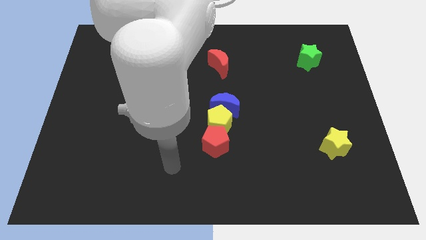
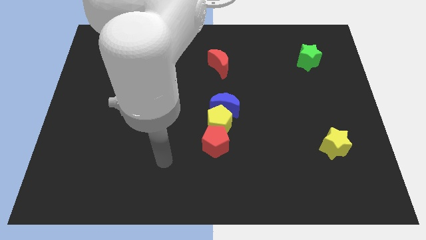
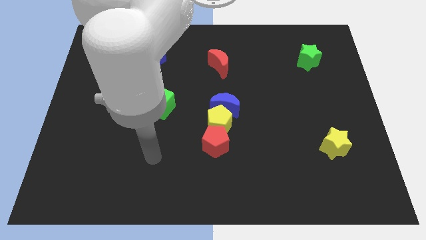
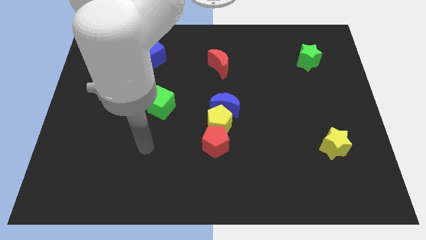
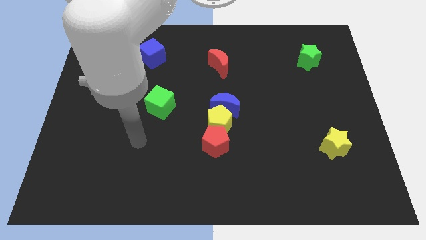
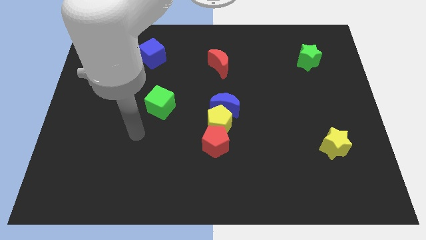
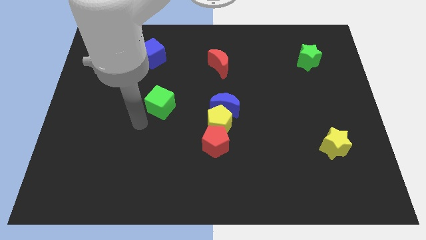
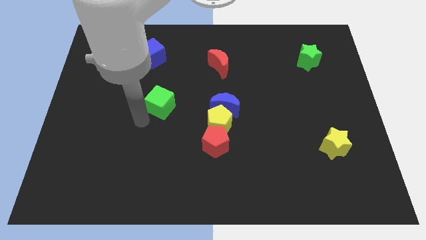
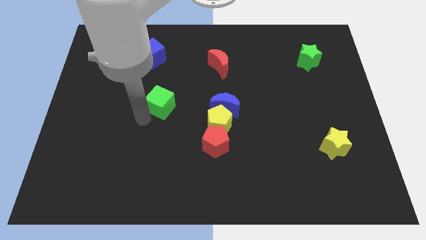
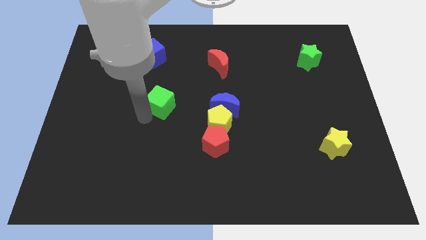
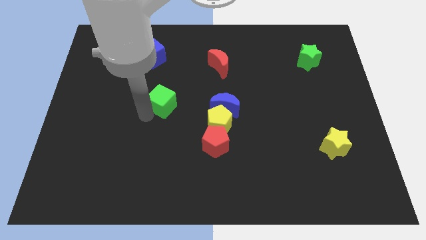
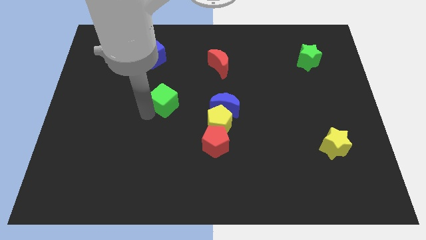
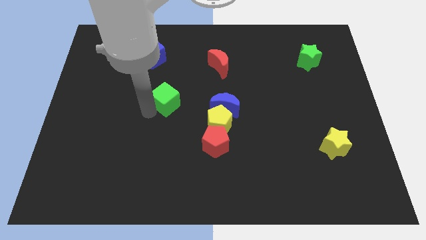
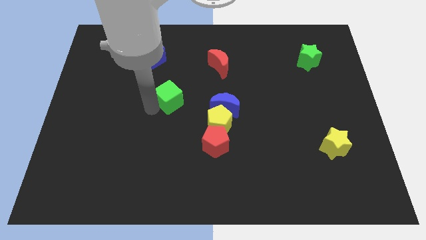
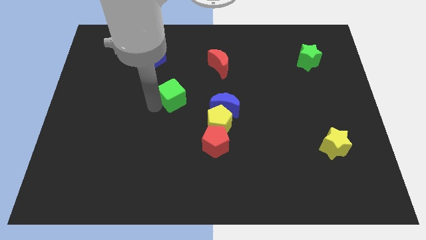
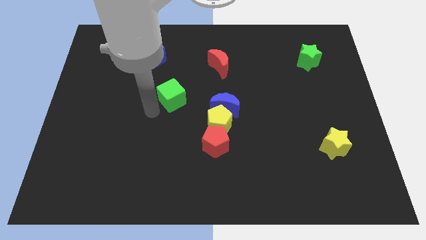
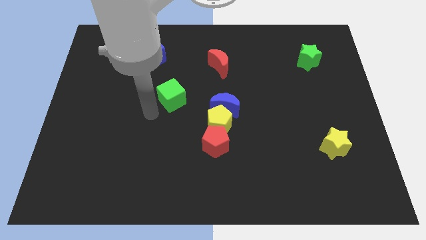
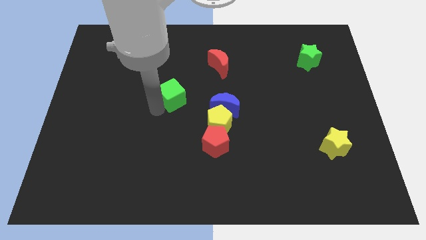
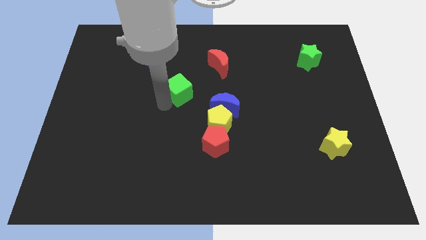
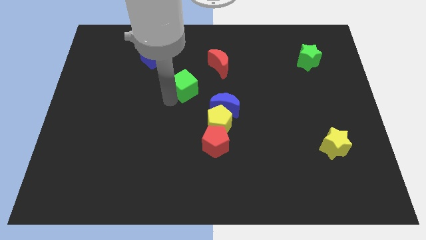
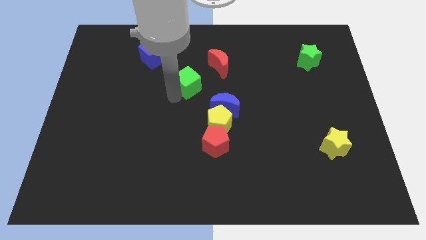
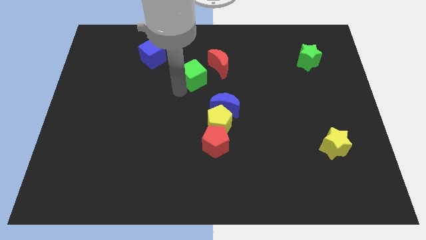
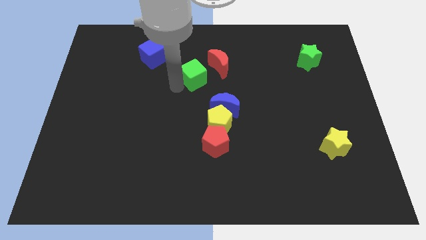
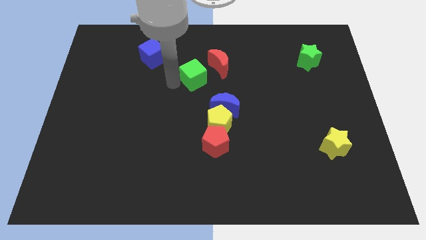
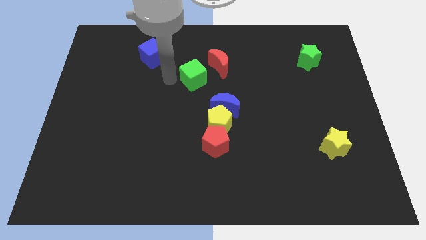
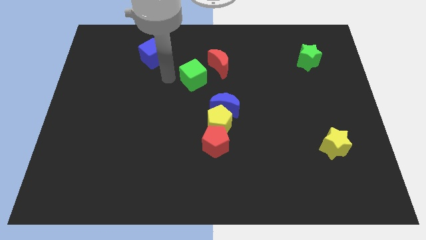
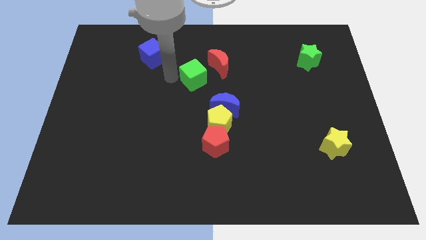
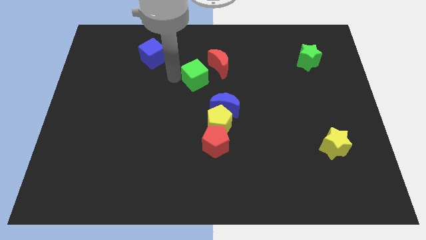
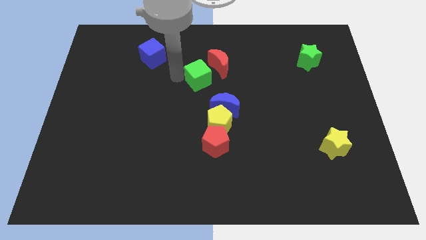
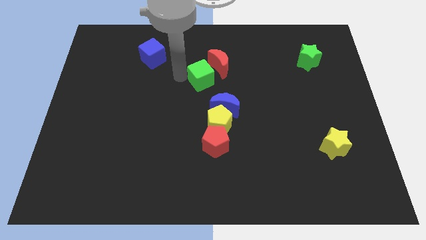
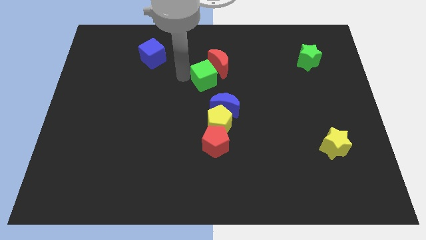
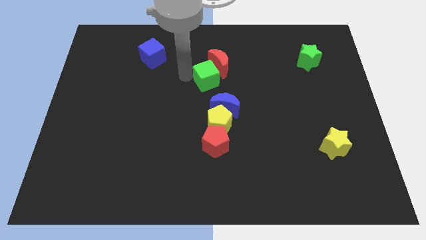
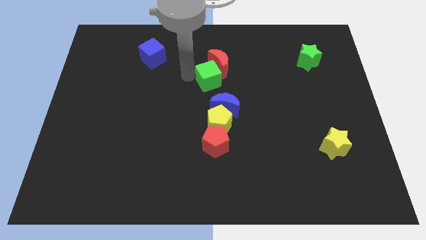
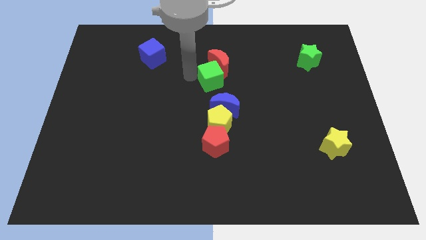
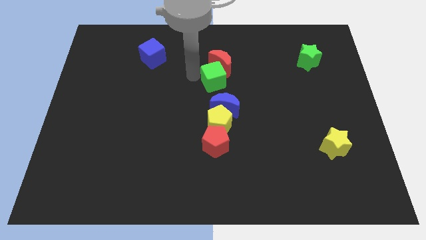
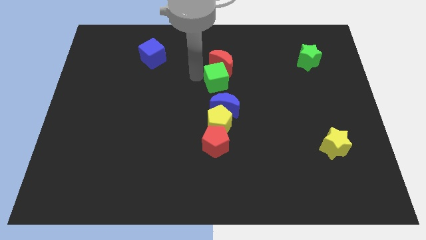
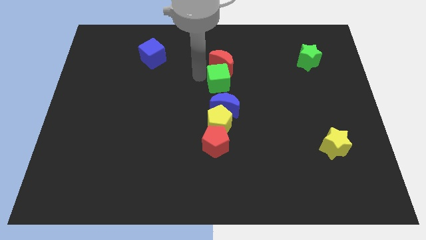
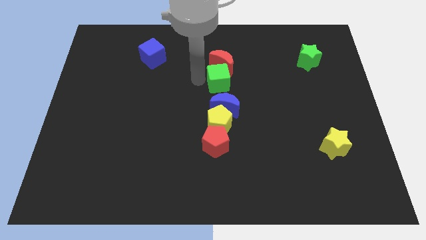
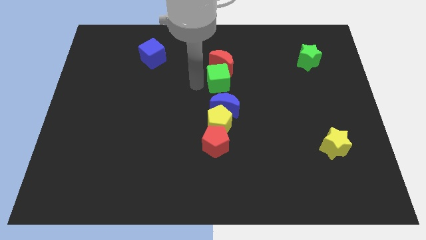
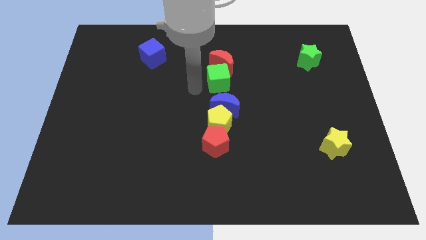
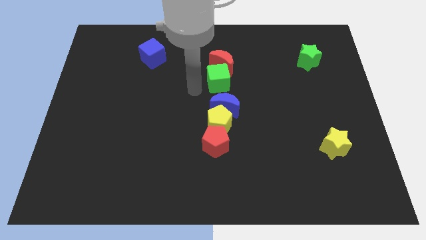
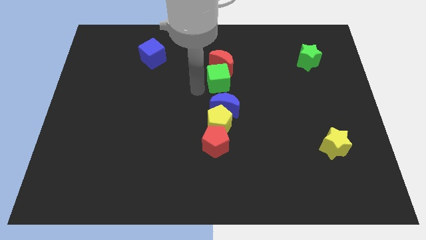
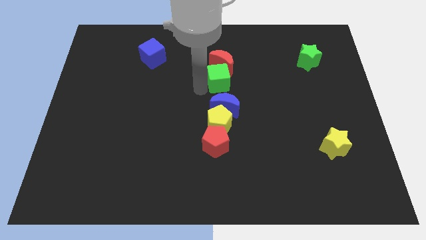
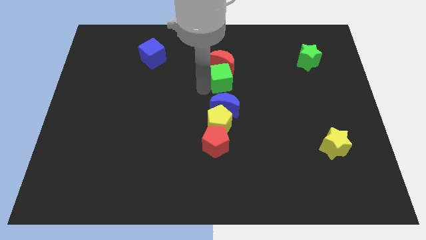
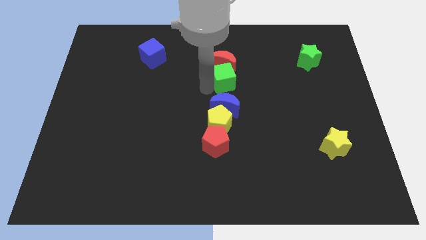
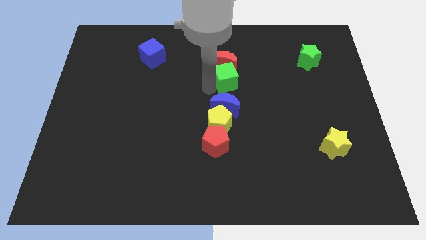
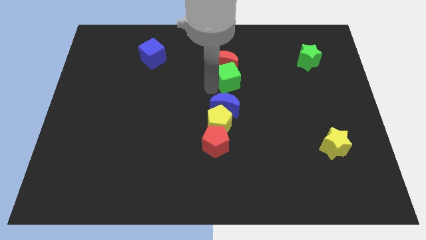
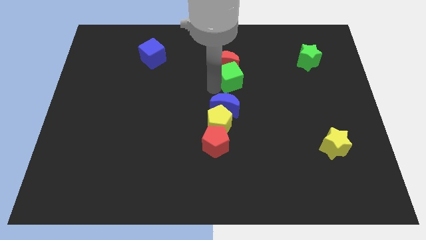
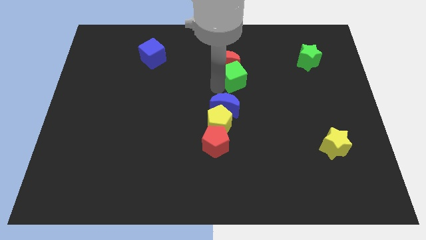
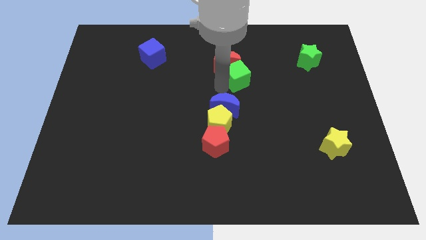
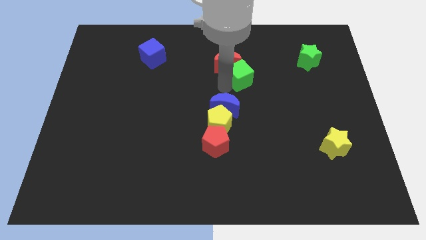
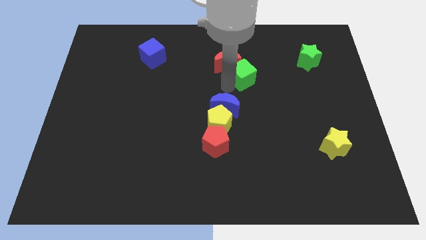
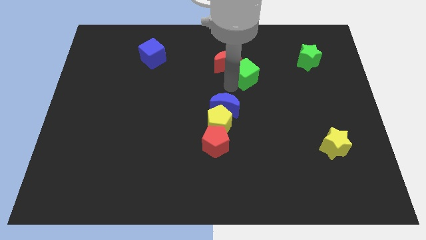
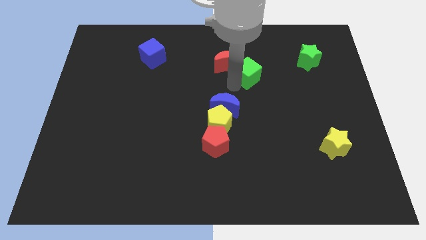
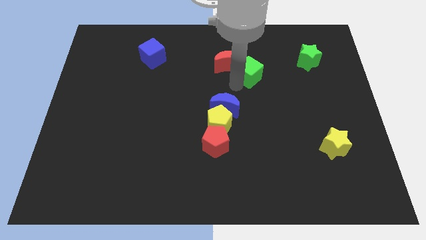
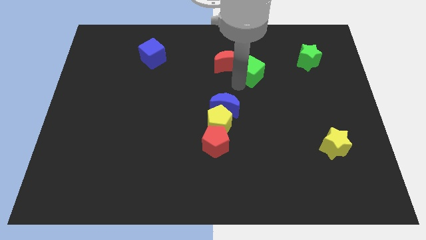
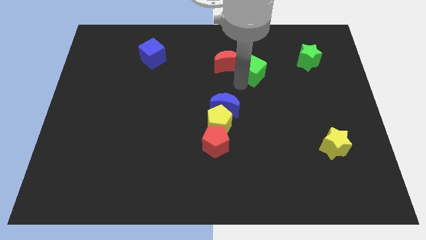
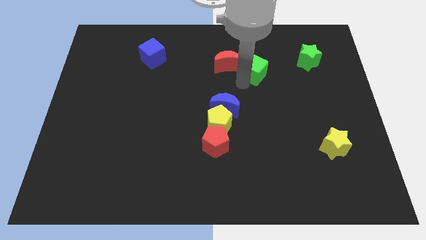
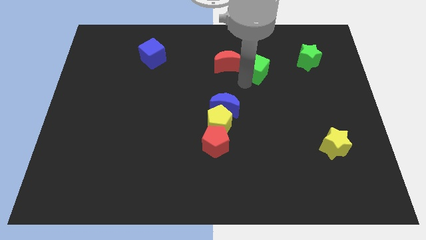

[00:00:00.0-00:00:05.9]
put the green cube to the left side of the green star

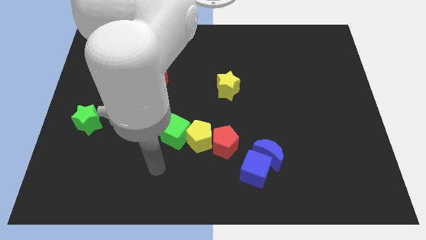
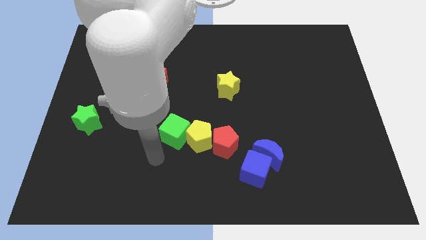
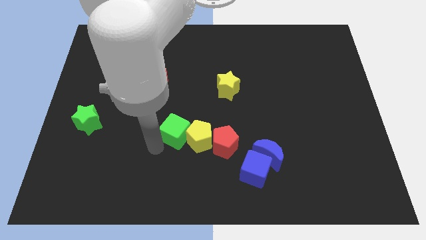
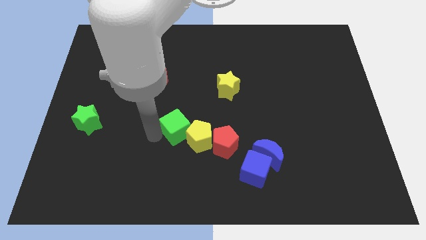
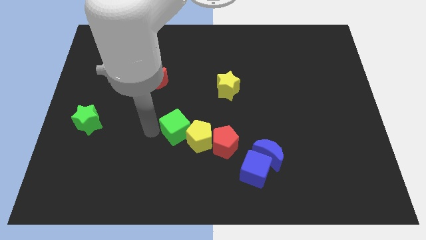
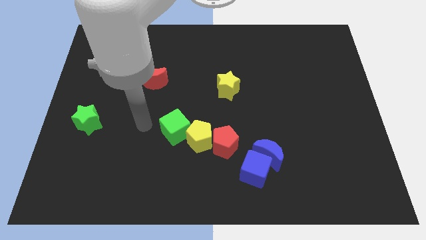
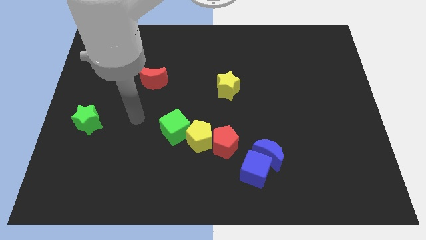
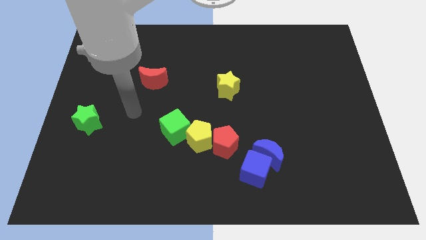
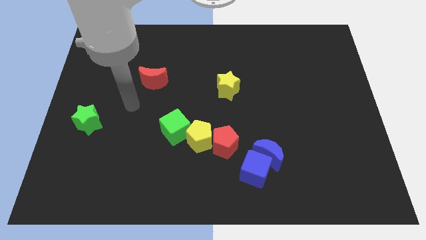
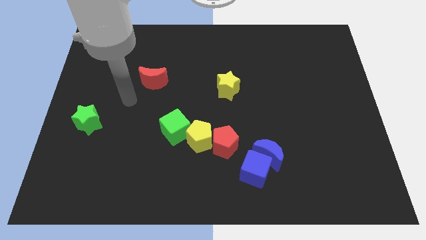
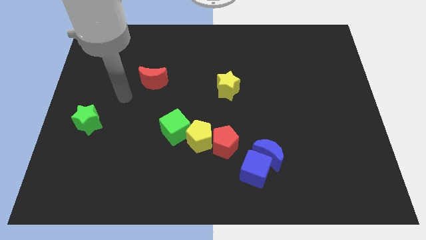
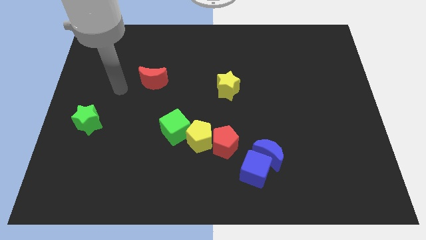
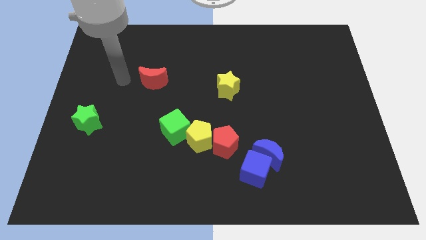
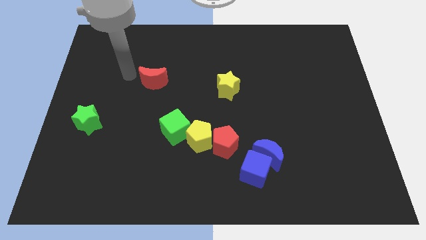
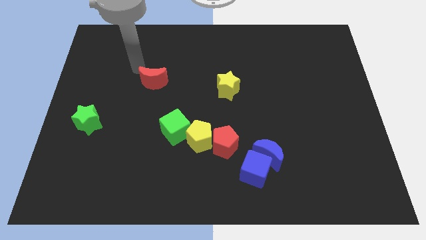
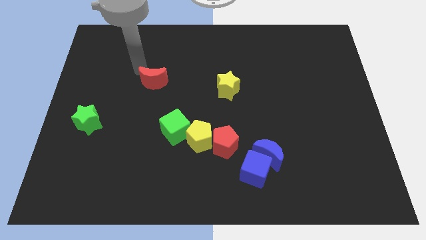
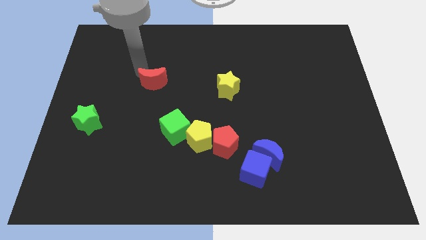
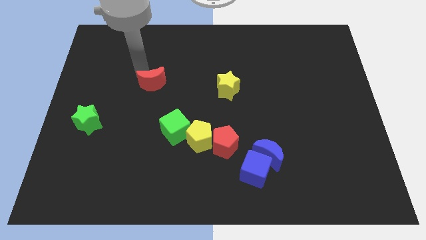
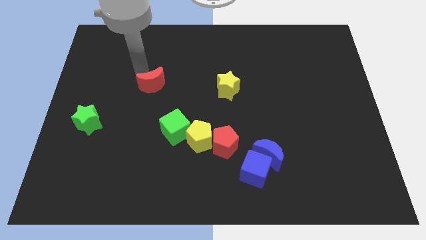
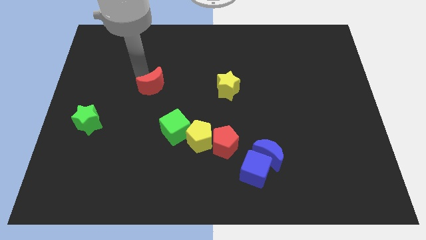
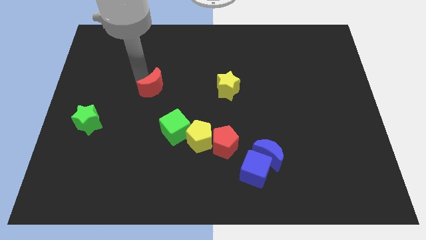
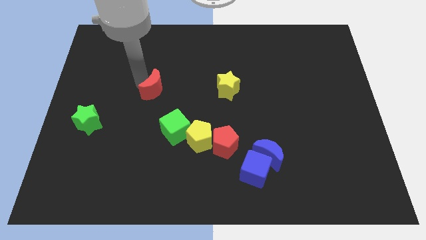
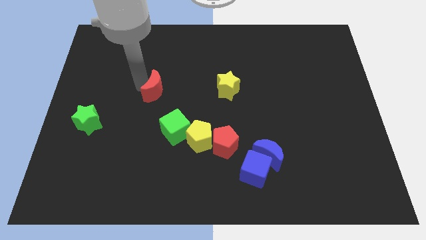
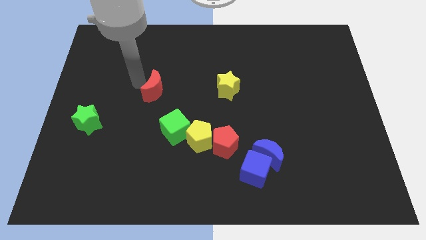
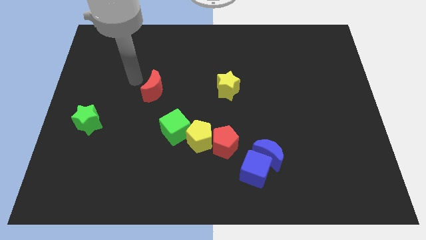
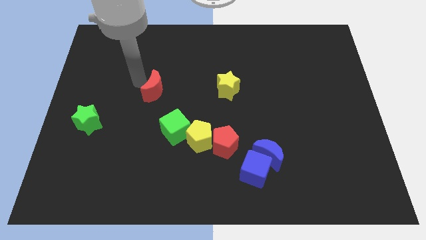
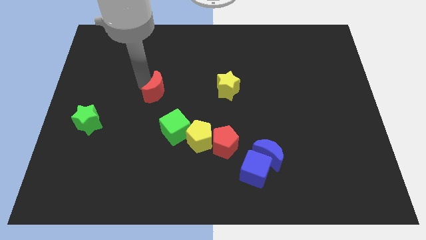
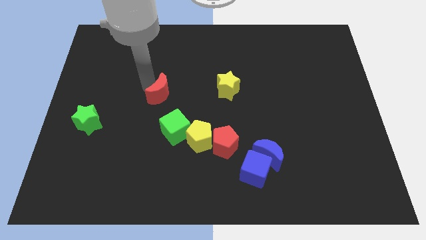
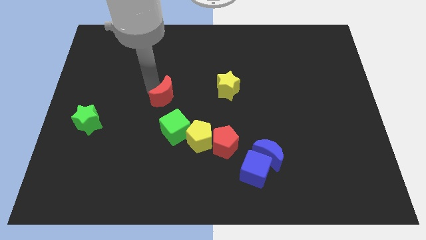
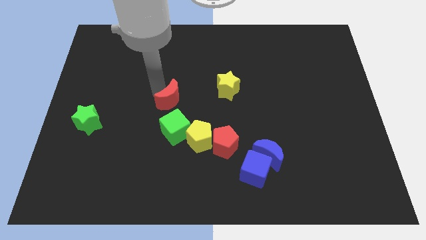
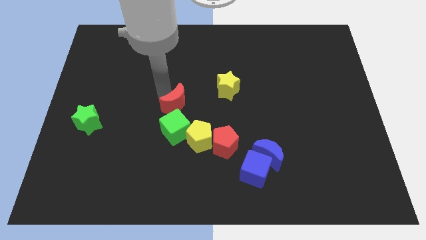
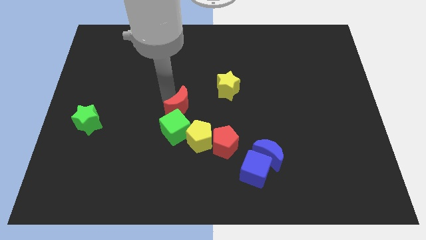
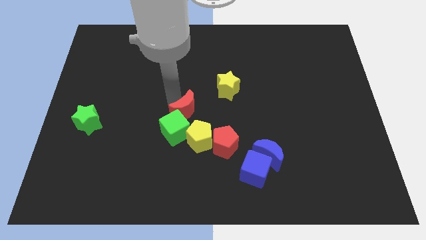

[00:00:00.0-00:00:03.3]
put the red moon to the top left side of the red pentagon
